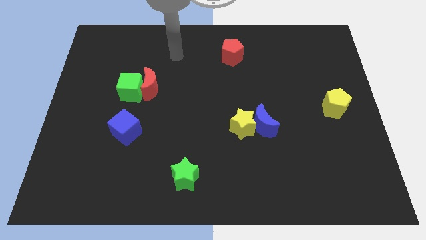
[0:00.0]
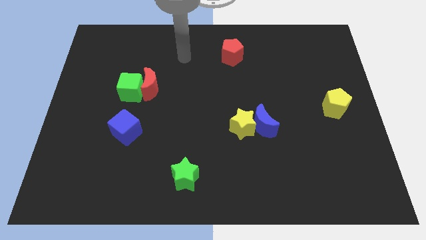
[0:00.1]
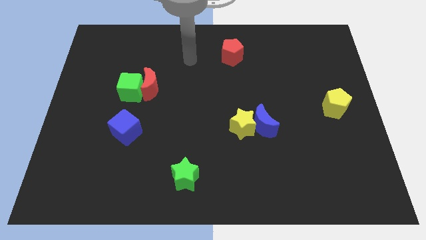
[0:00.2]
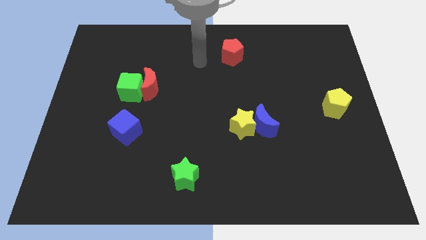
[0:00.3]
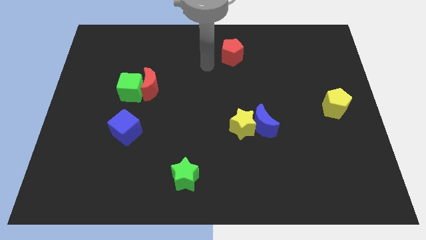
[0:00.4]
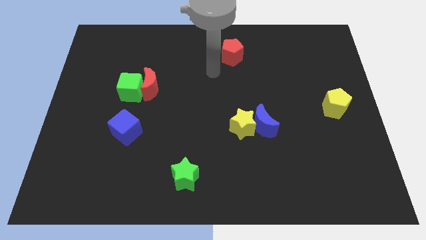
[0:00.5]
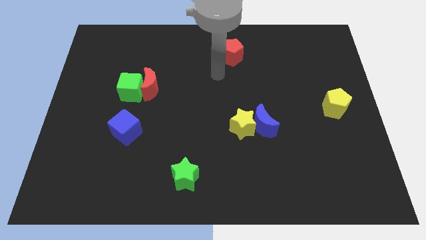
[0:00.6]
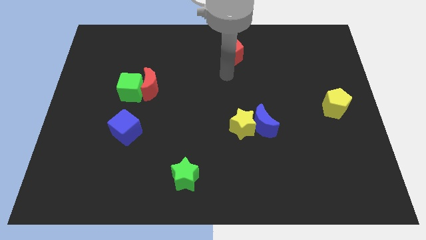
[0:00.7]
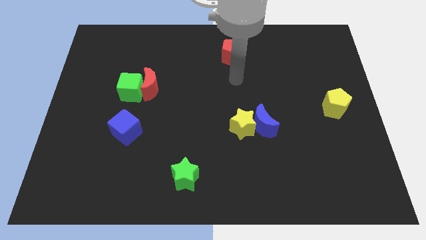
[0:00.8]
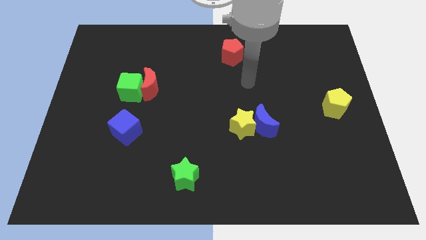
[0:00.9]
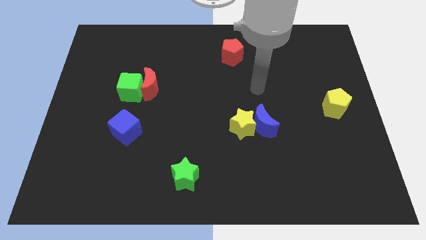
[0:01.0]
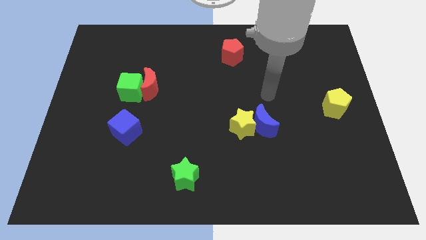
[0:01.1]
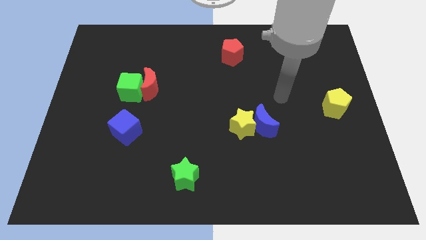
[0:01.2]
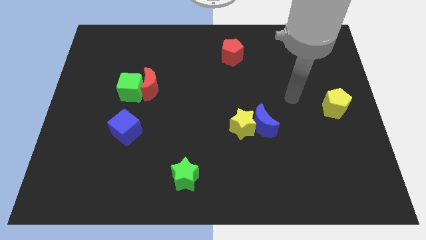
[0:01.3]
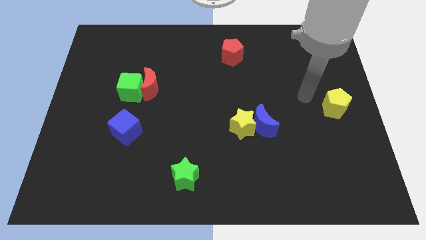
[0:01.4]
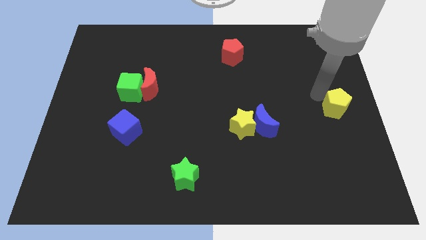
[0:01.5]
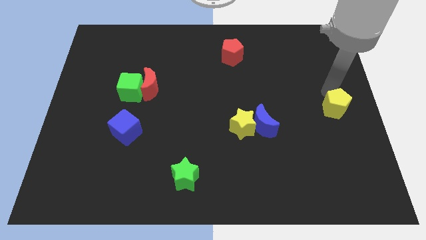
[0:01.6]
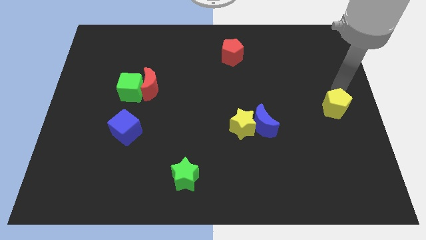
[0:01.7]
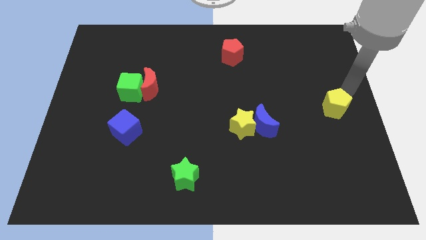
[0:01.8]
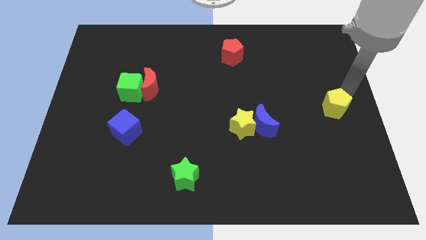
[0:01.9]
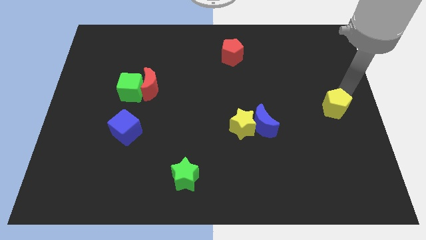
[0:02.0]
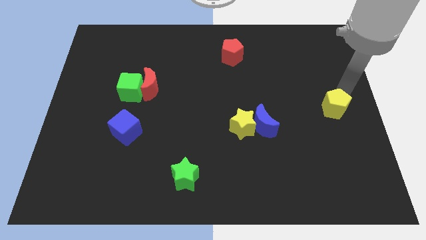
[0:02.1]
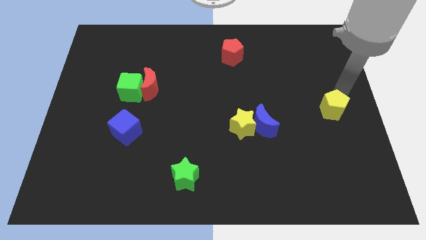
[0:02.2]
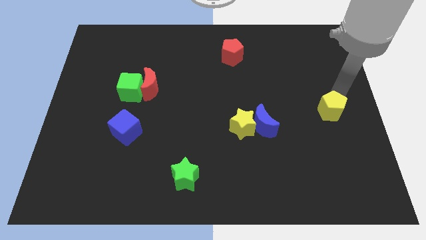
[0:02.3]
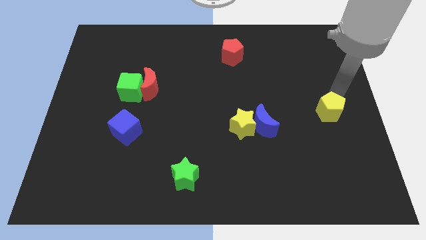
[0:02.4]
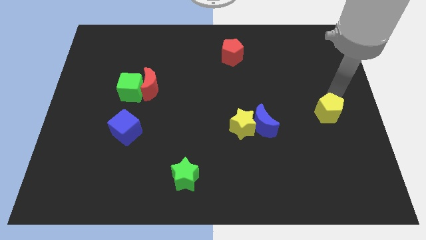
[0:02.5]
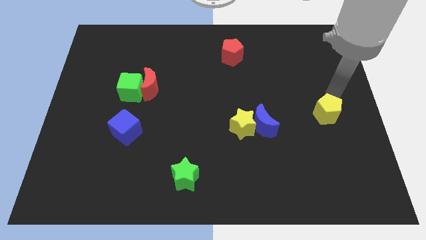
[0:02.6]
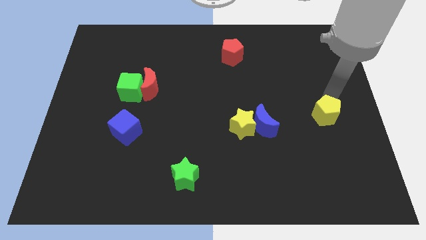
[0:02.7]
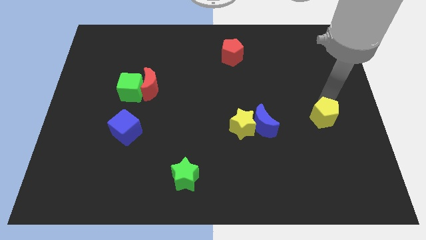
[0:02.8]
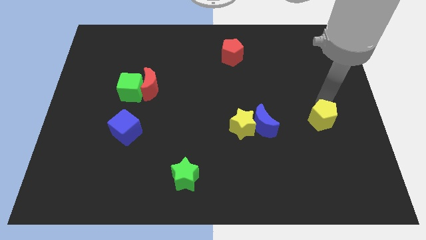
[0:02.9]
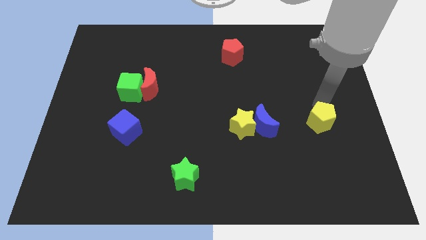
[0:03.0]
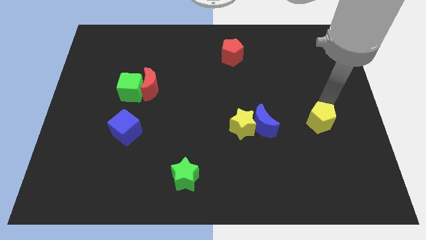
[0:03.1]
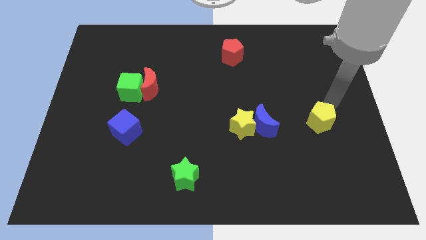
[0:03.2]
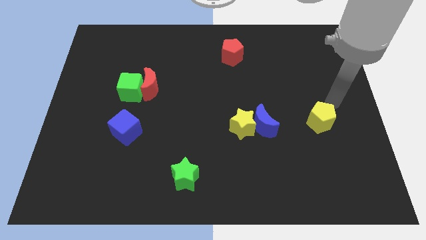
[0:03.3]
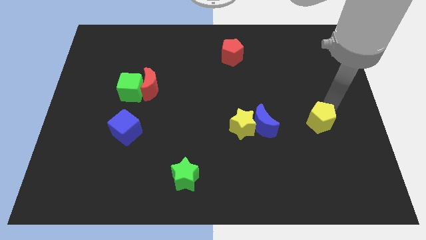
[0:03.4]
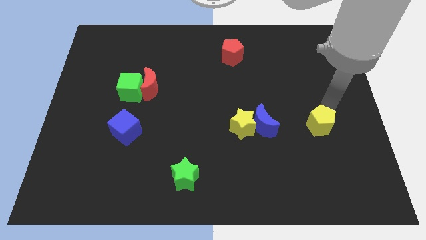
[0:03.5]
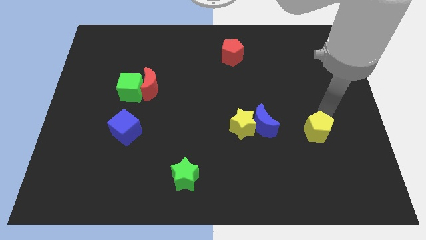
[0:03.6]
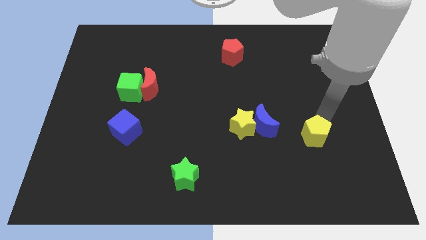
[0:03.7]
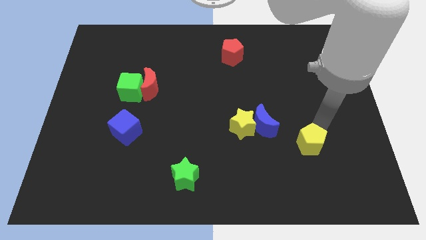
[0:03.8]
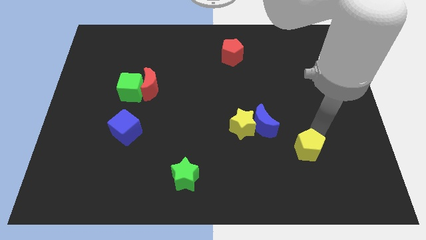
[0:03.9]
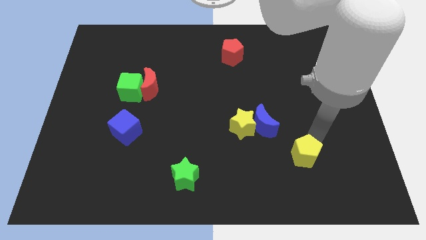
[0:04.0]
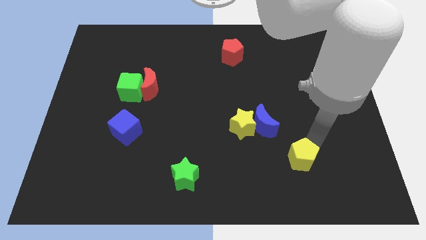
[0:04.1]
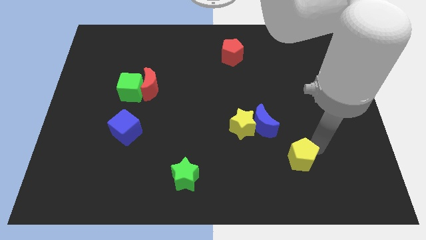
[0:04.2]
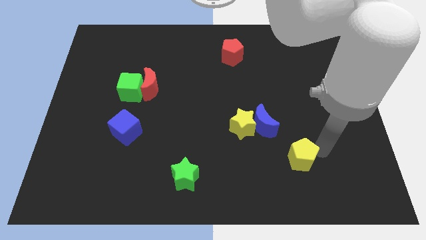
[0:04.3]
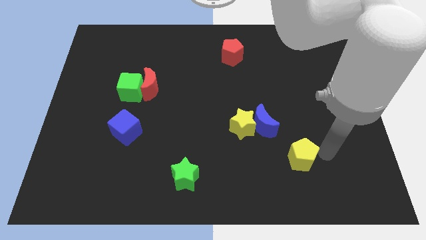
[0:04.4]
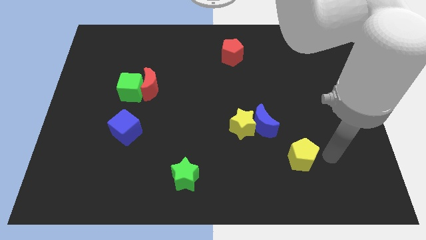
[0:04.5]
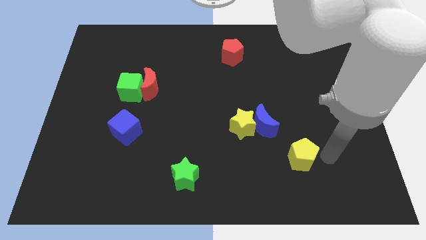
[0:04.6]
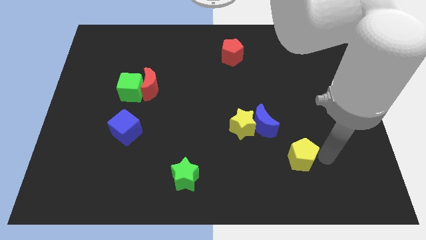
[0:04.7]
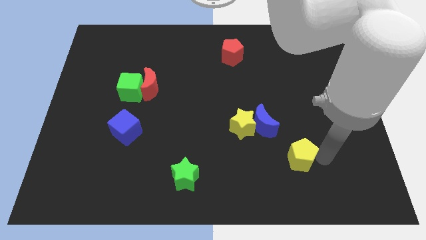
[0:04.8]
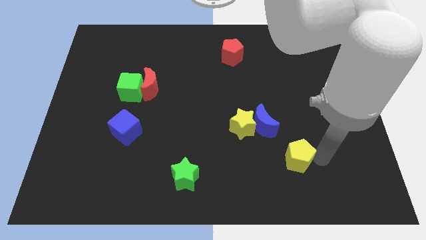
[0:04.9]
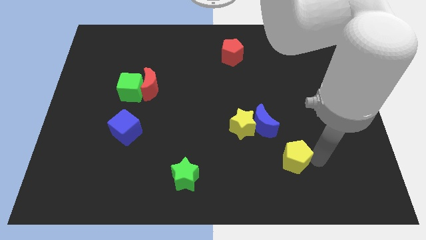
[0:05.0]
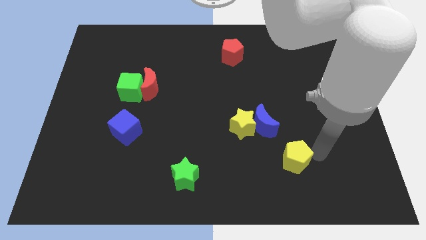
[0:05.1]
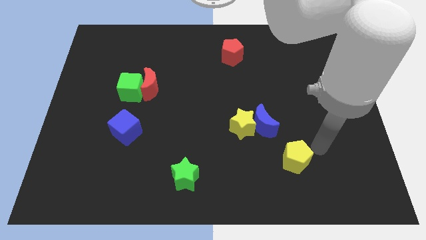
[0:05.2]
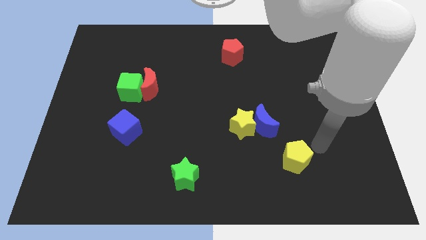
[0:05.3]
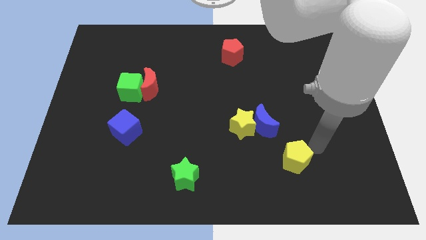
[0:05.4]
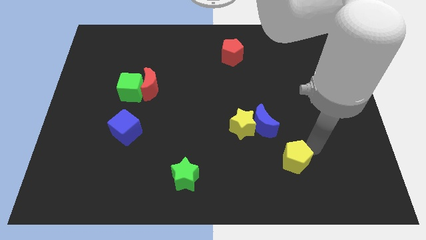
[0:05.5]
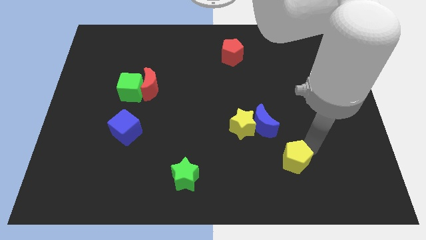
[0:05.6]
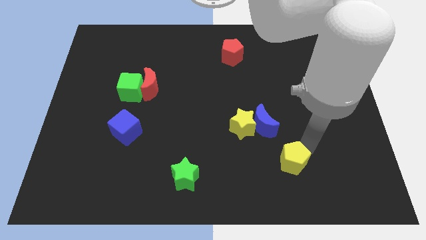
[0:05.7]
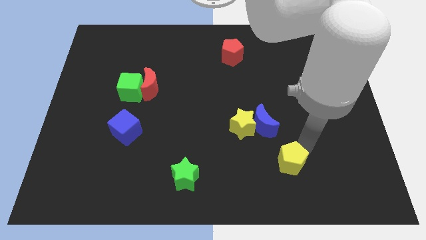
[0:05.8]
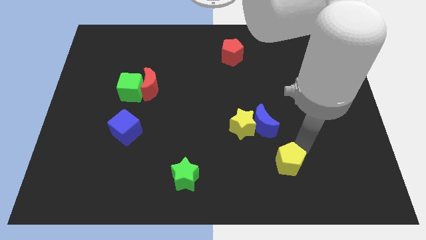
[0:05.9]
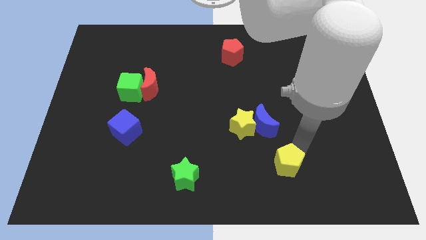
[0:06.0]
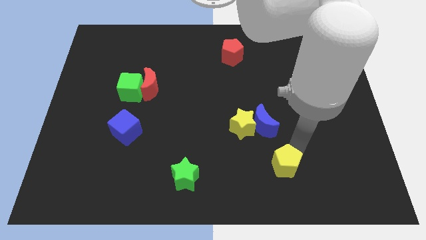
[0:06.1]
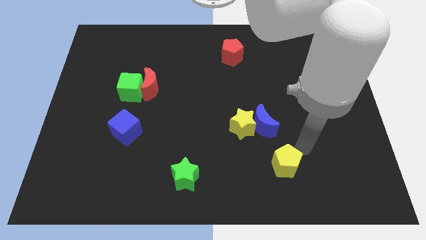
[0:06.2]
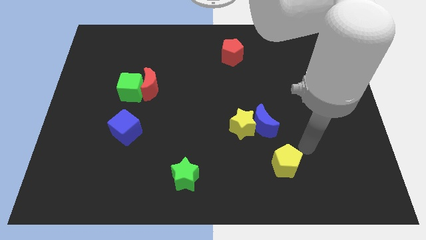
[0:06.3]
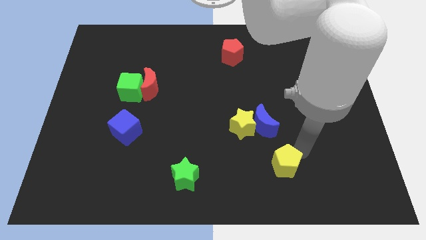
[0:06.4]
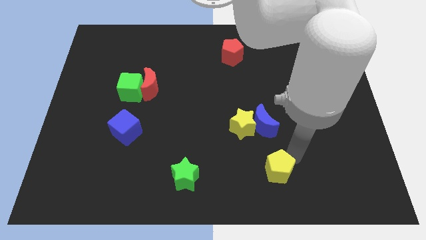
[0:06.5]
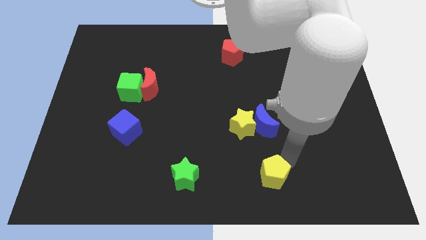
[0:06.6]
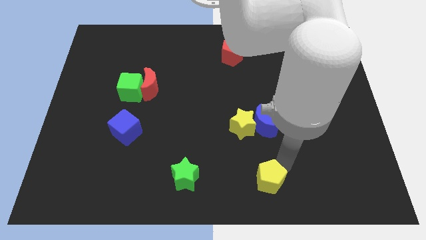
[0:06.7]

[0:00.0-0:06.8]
push the yellow pentagon to the bottom side

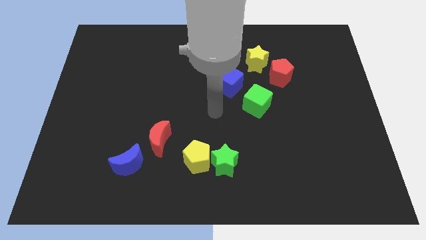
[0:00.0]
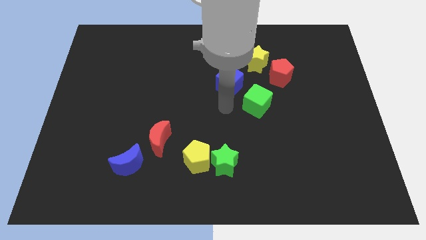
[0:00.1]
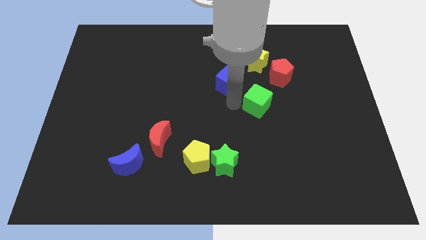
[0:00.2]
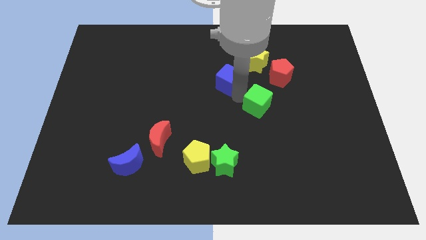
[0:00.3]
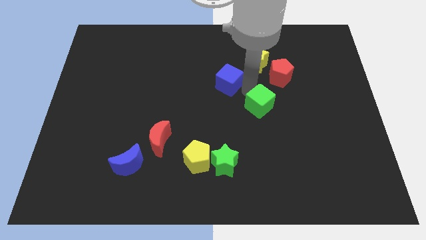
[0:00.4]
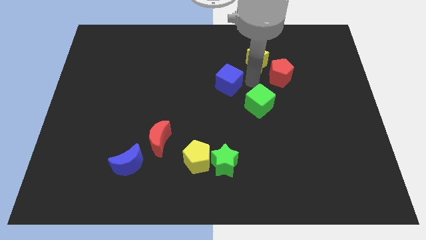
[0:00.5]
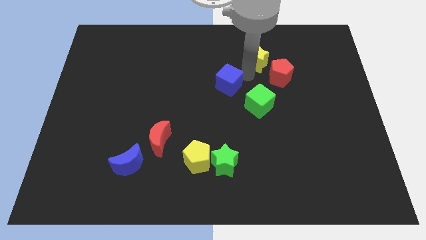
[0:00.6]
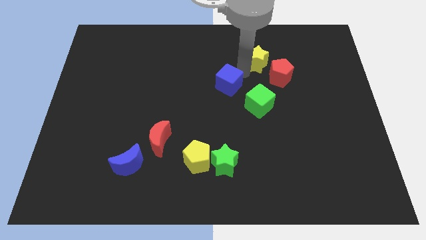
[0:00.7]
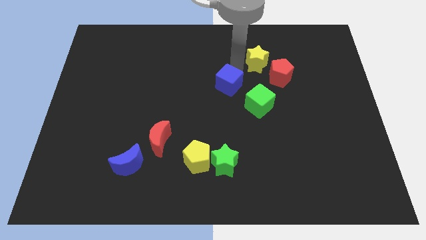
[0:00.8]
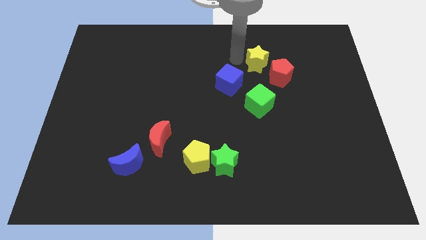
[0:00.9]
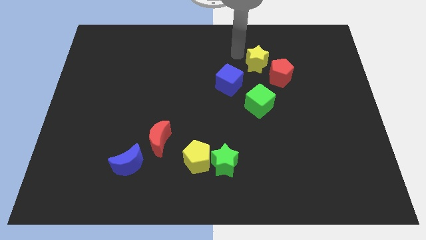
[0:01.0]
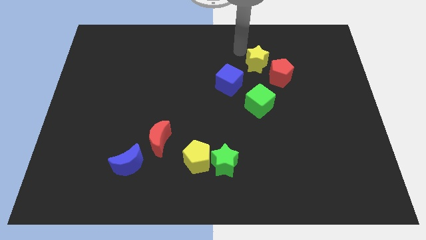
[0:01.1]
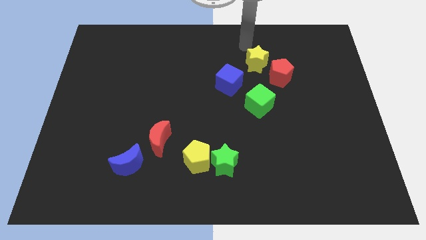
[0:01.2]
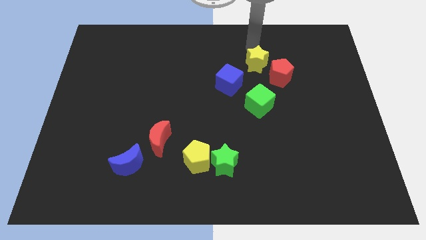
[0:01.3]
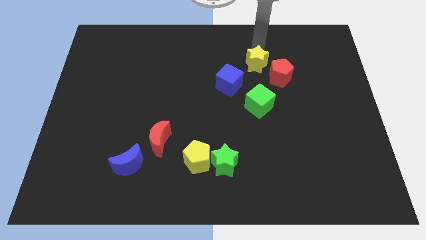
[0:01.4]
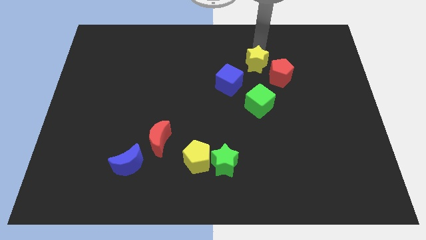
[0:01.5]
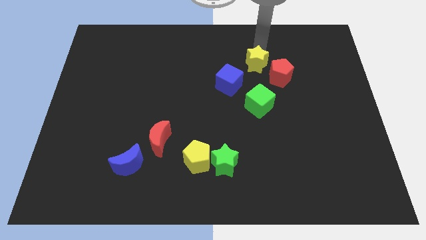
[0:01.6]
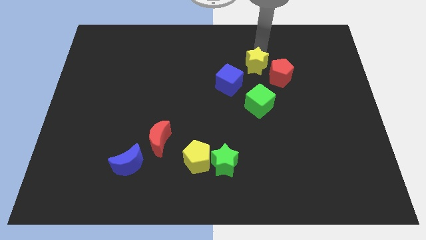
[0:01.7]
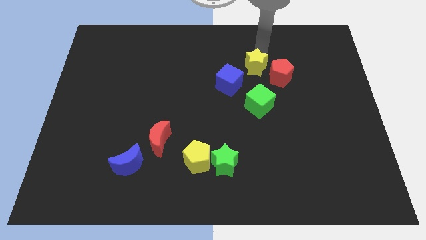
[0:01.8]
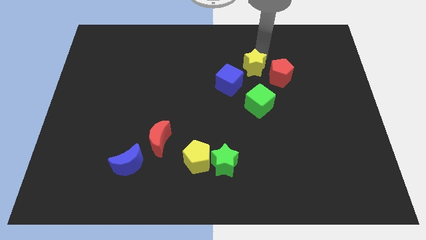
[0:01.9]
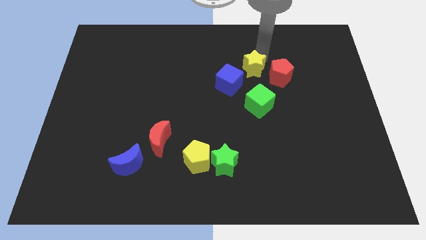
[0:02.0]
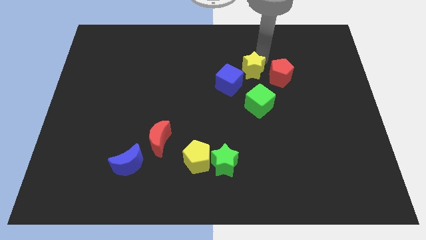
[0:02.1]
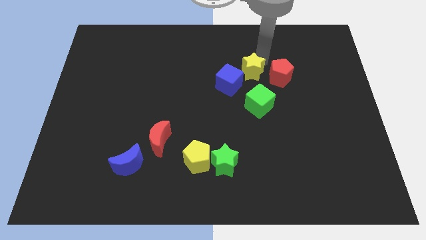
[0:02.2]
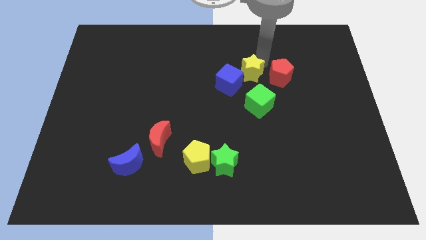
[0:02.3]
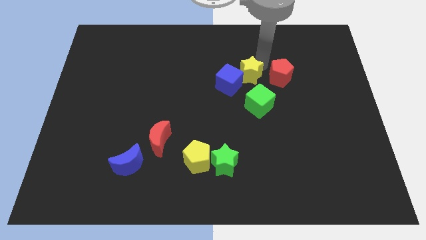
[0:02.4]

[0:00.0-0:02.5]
slide the yellow star to the center
